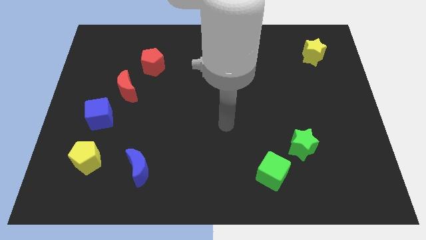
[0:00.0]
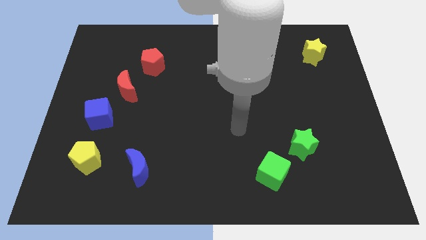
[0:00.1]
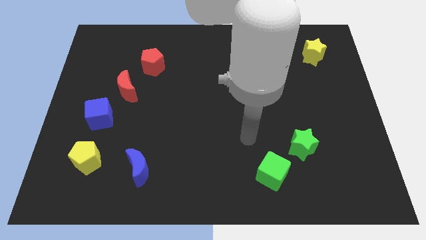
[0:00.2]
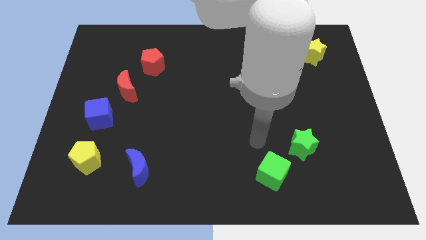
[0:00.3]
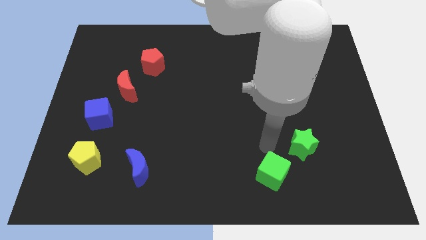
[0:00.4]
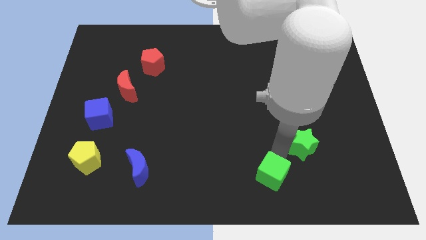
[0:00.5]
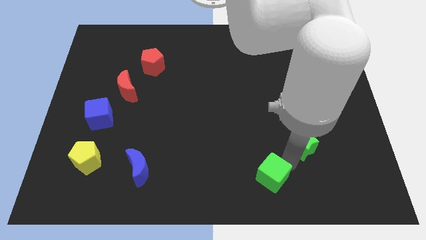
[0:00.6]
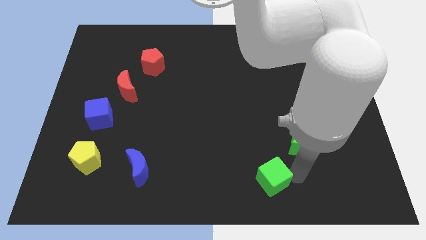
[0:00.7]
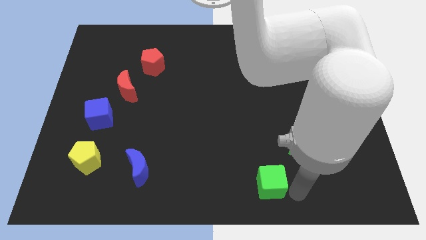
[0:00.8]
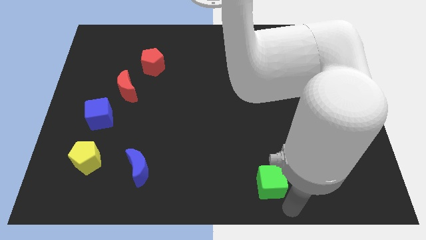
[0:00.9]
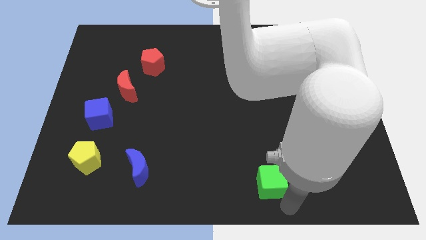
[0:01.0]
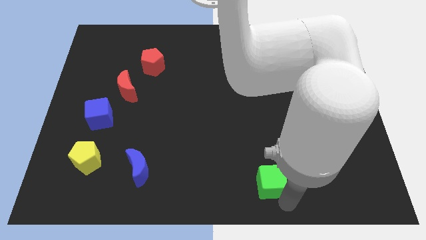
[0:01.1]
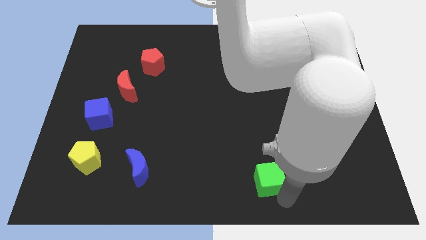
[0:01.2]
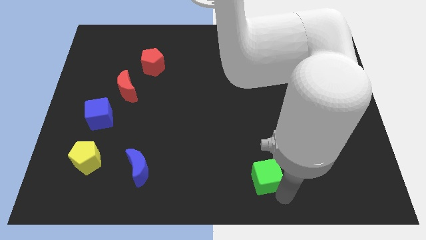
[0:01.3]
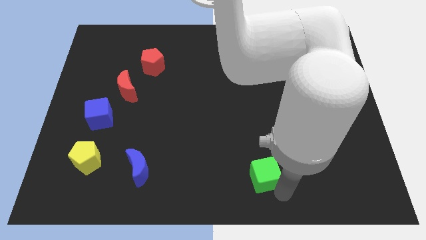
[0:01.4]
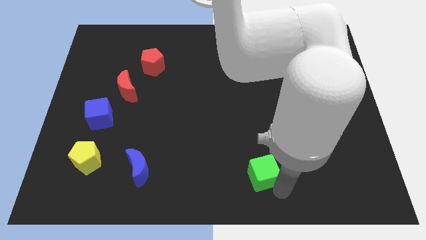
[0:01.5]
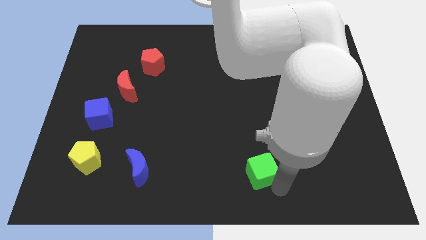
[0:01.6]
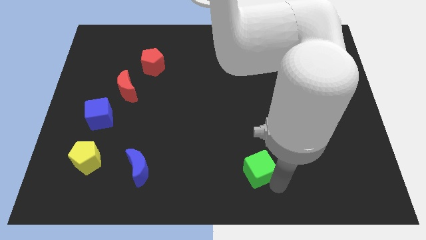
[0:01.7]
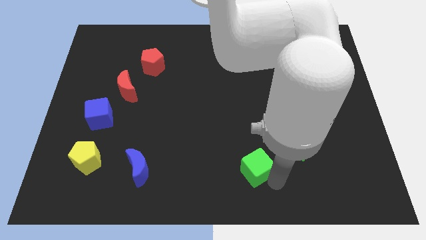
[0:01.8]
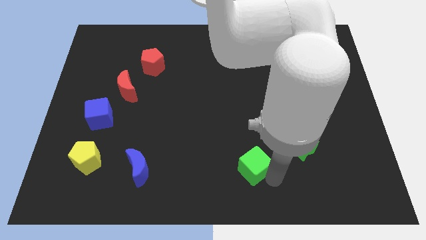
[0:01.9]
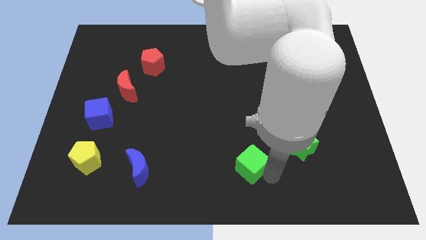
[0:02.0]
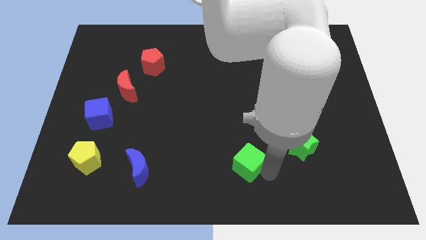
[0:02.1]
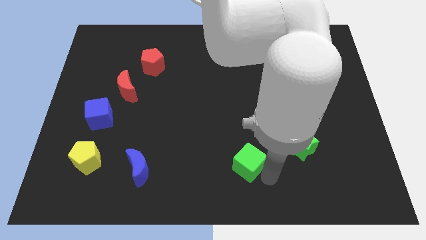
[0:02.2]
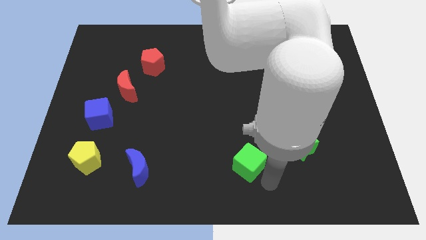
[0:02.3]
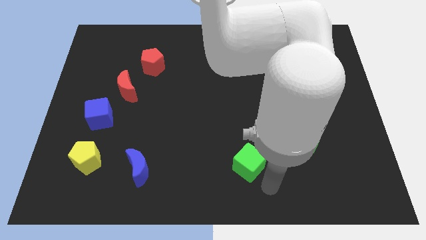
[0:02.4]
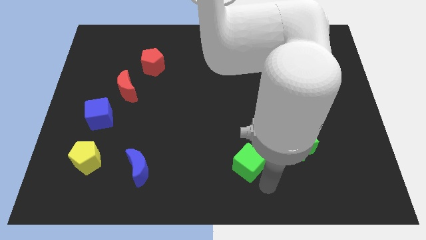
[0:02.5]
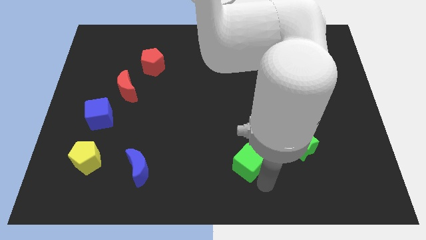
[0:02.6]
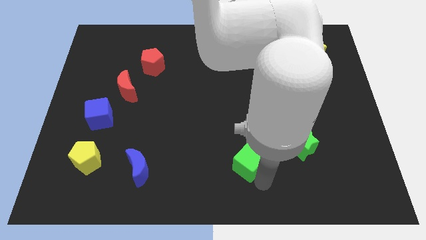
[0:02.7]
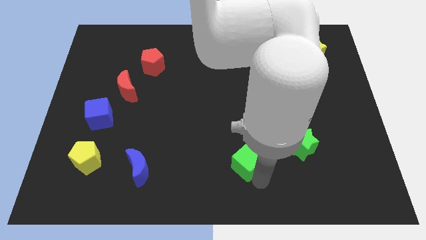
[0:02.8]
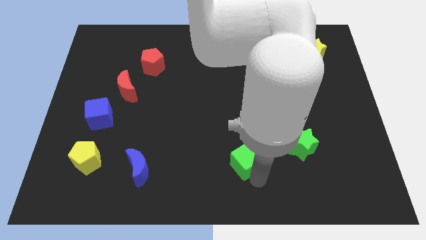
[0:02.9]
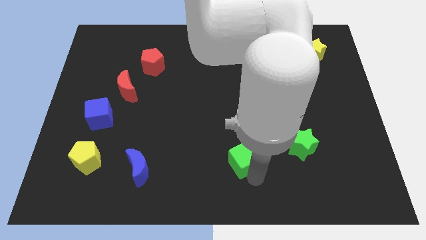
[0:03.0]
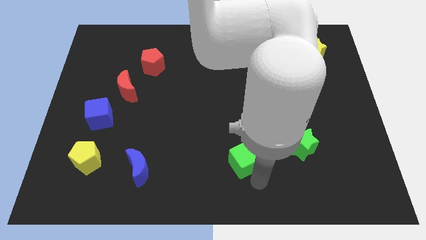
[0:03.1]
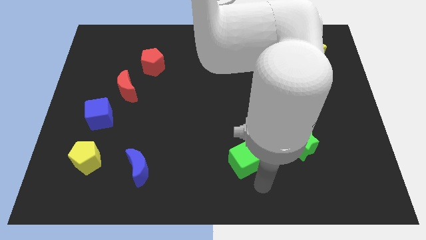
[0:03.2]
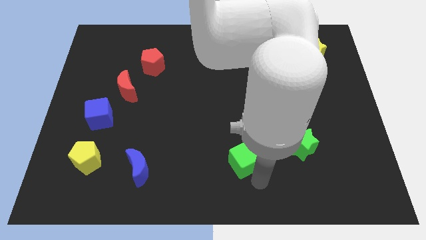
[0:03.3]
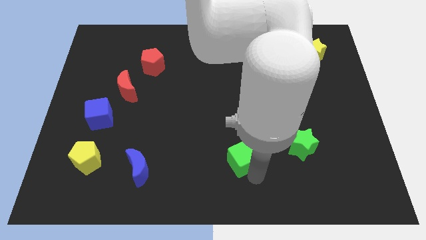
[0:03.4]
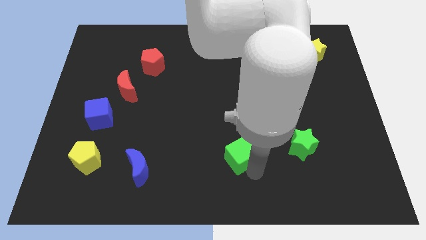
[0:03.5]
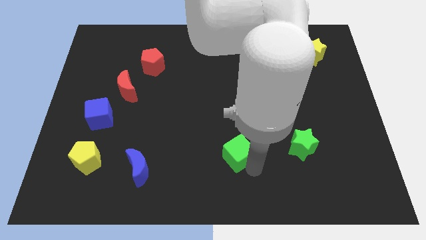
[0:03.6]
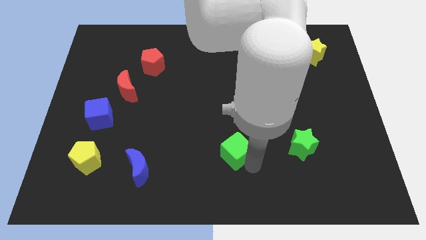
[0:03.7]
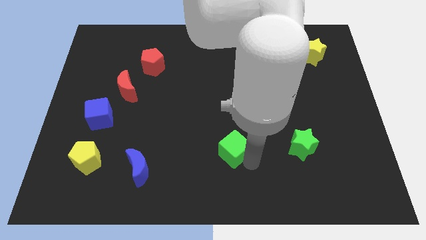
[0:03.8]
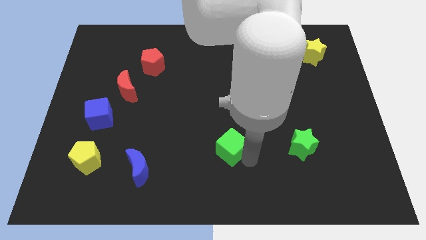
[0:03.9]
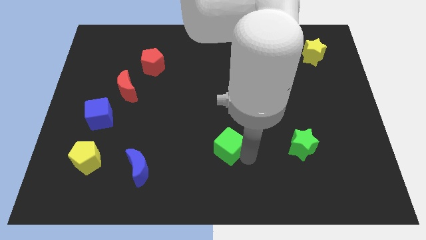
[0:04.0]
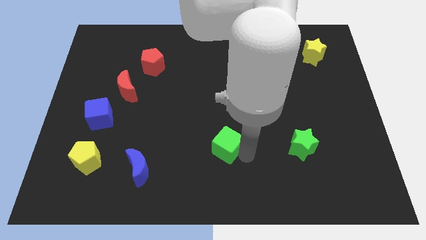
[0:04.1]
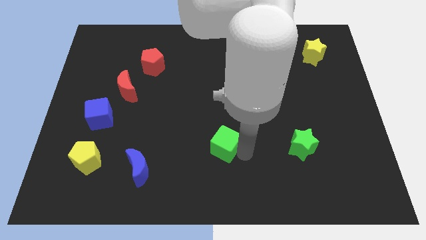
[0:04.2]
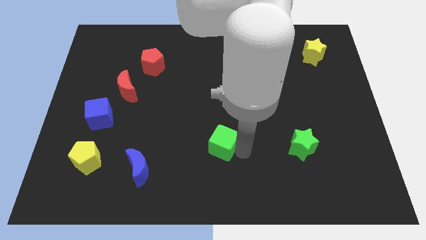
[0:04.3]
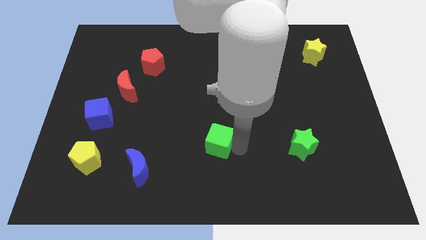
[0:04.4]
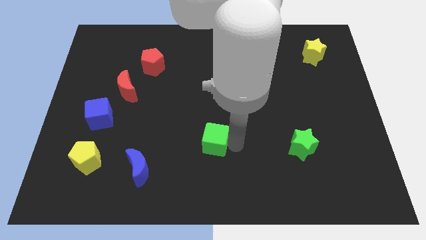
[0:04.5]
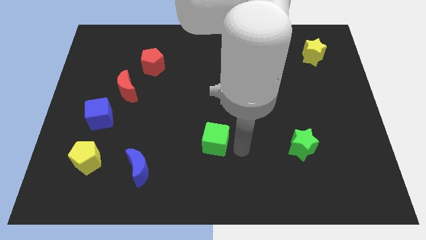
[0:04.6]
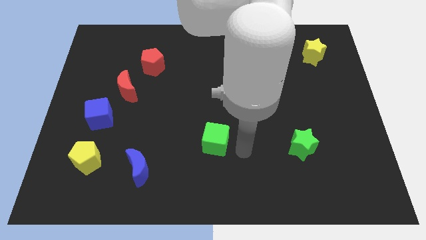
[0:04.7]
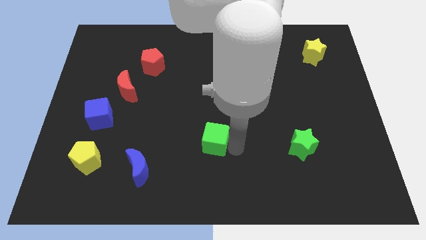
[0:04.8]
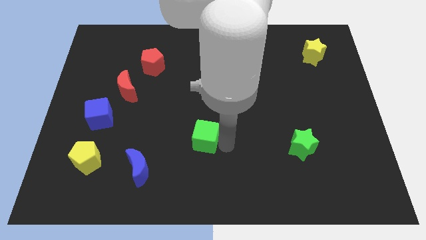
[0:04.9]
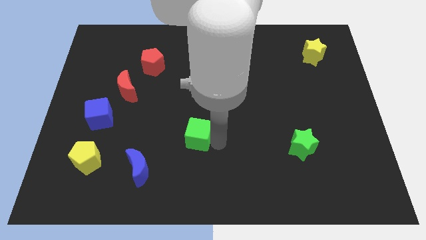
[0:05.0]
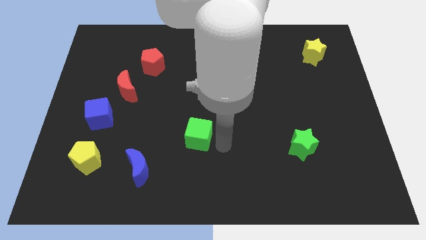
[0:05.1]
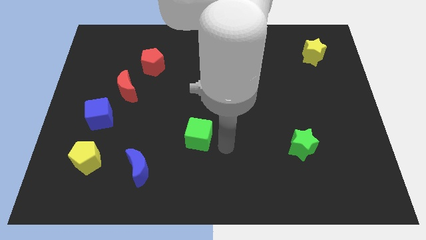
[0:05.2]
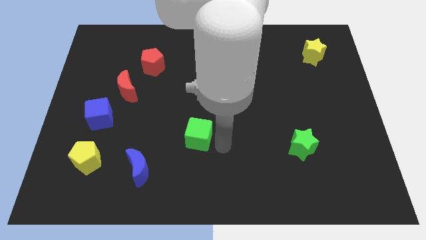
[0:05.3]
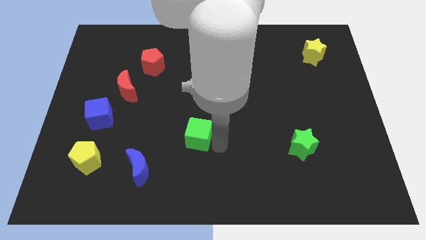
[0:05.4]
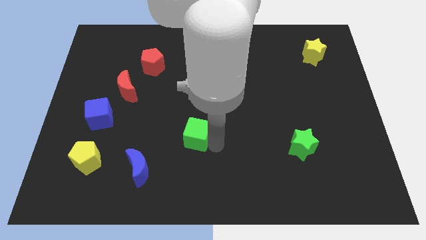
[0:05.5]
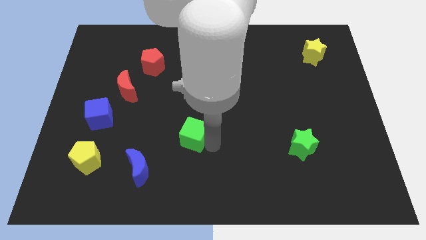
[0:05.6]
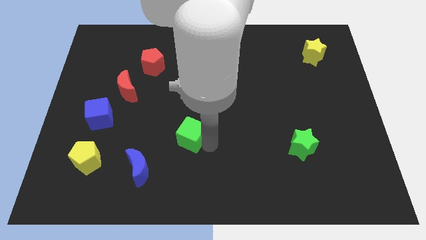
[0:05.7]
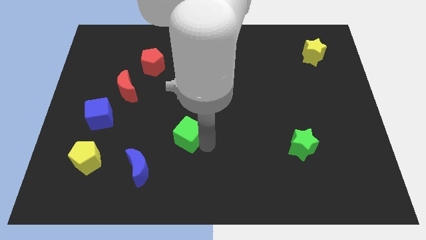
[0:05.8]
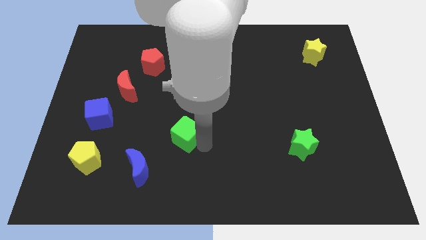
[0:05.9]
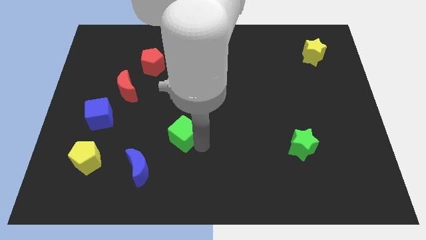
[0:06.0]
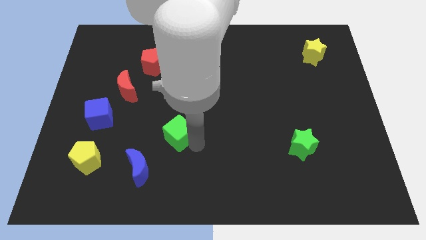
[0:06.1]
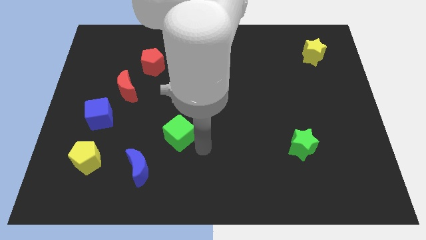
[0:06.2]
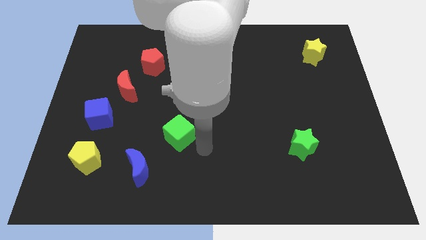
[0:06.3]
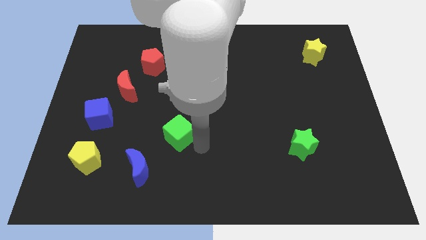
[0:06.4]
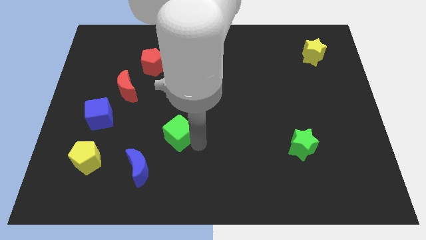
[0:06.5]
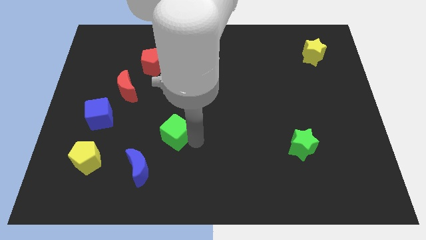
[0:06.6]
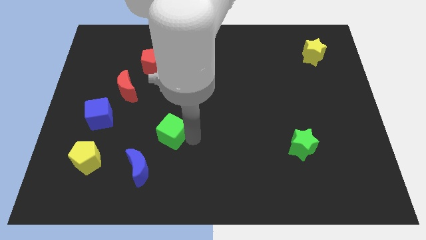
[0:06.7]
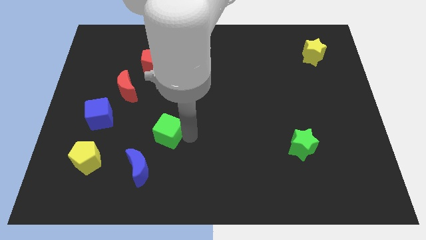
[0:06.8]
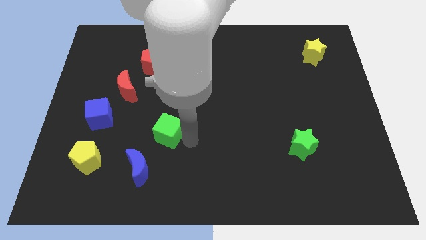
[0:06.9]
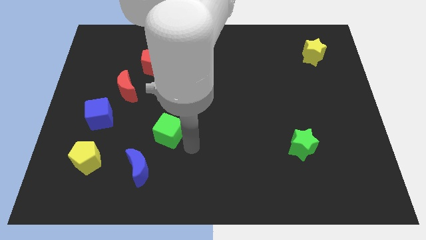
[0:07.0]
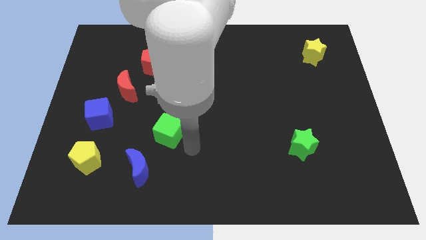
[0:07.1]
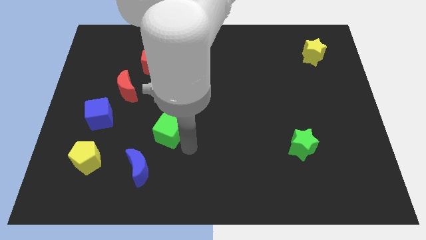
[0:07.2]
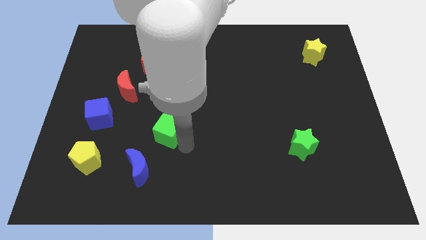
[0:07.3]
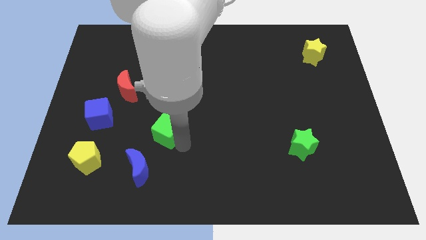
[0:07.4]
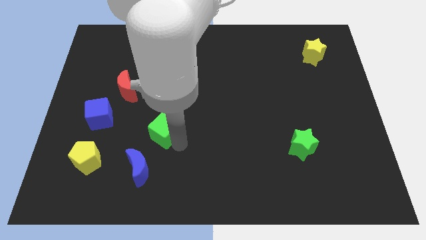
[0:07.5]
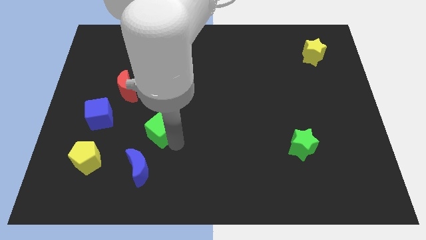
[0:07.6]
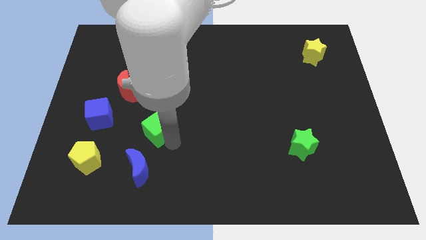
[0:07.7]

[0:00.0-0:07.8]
move the green cube right of the blue cube
